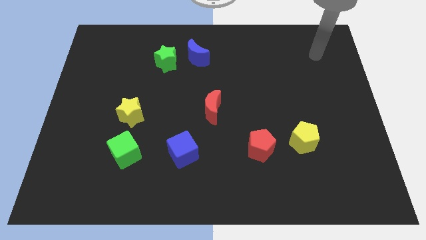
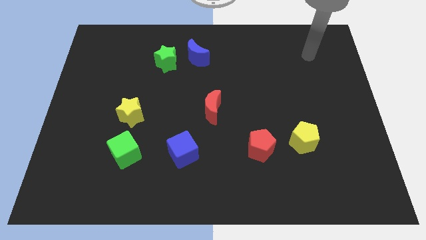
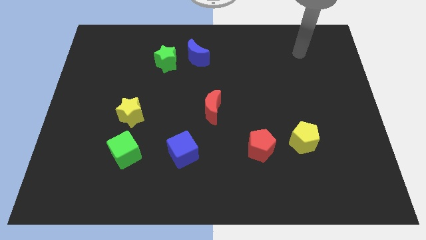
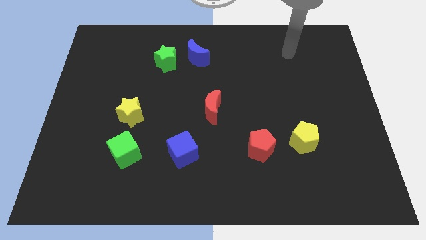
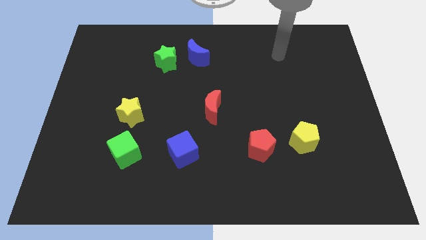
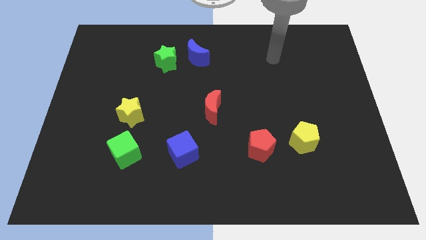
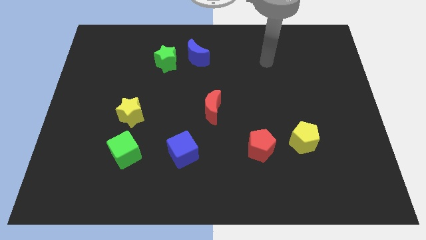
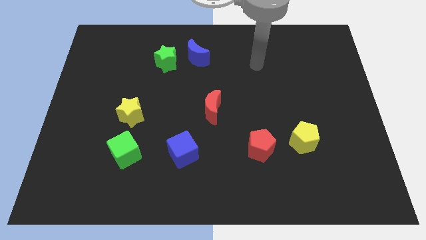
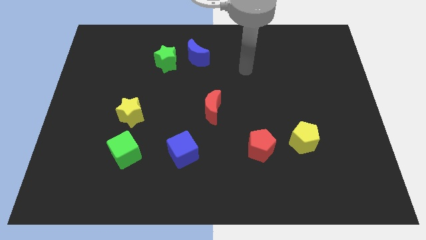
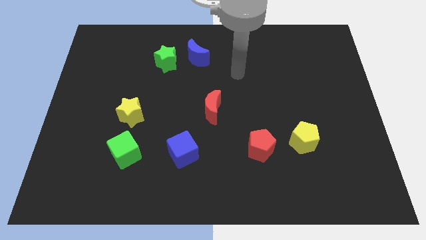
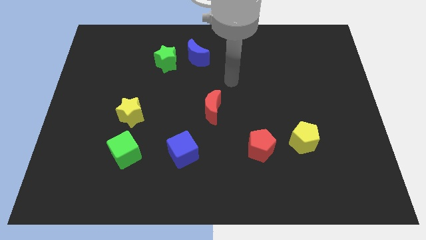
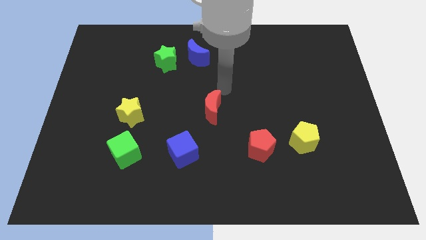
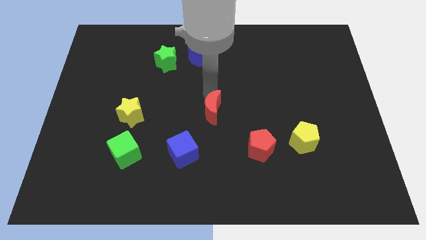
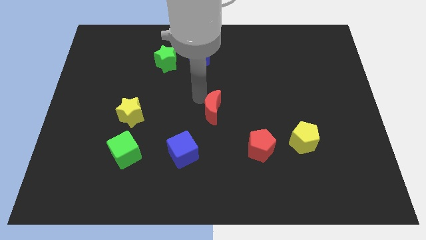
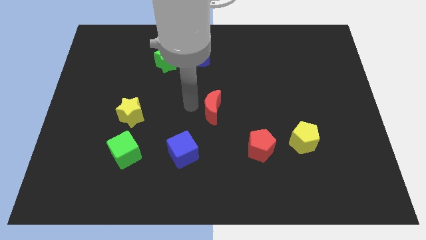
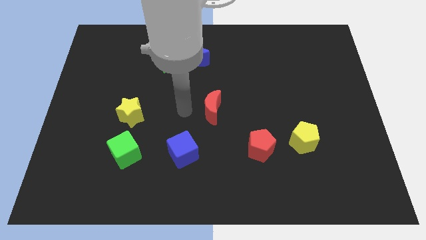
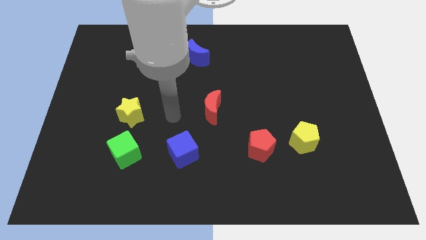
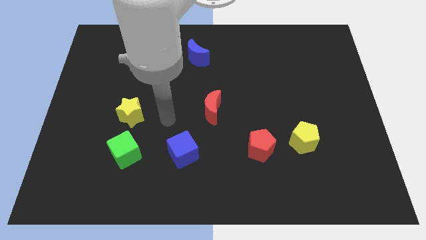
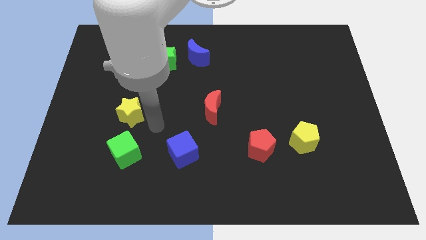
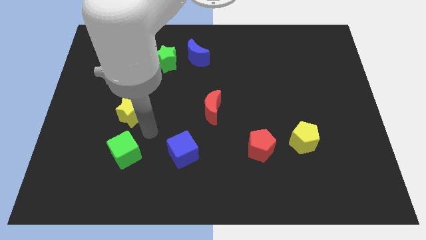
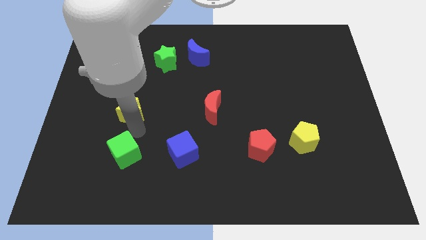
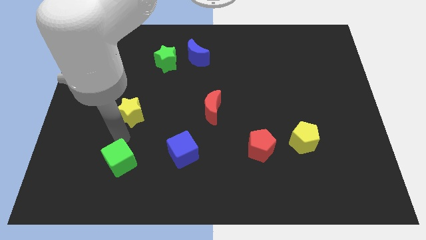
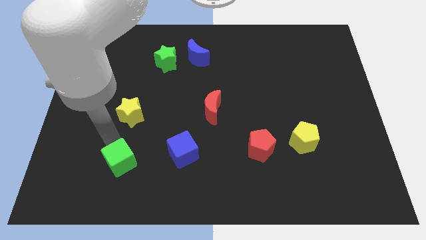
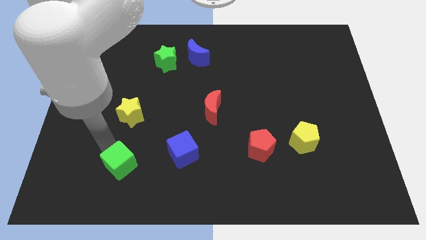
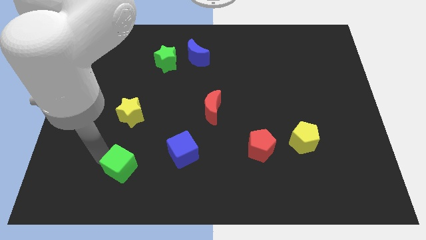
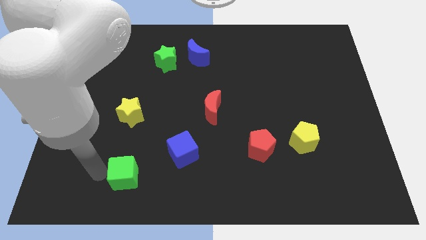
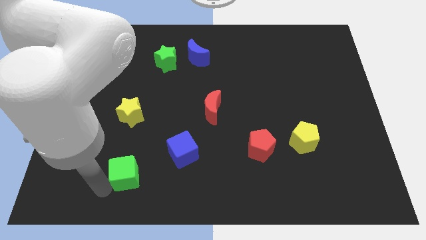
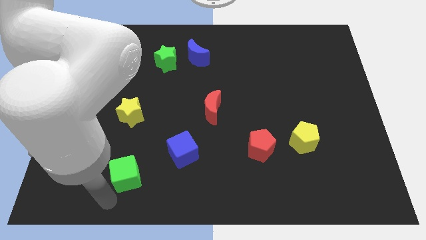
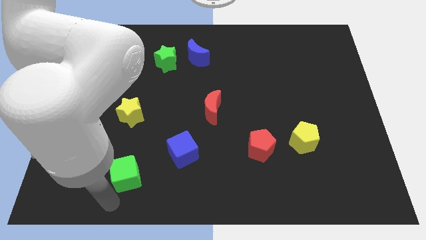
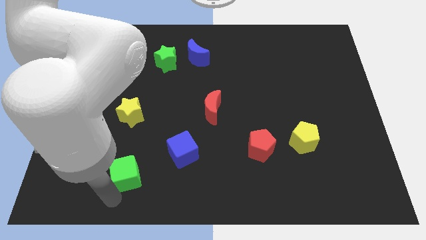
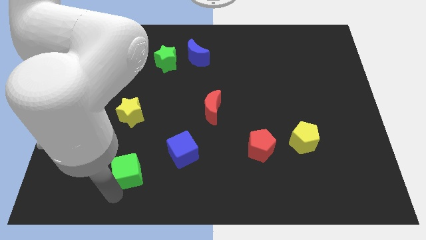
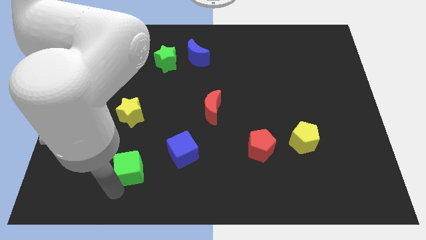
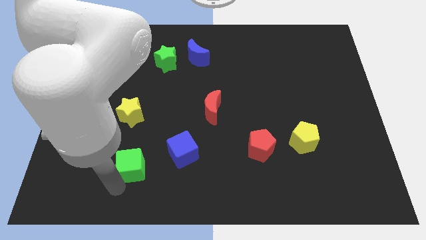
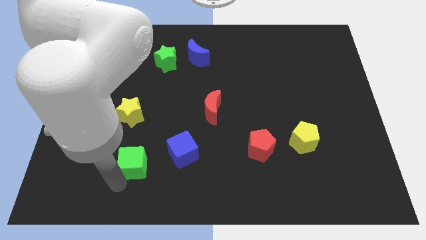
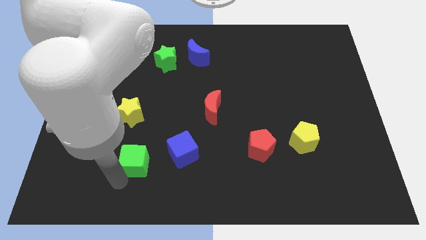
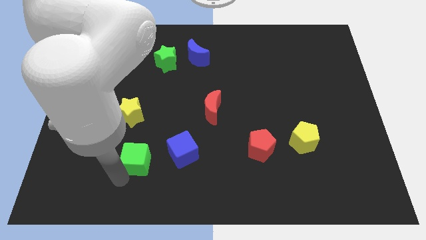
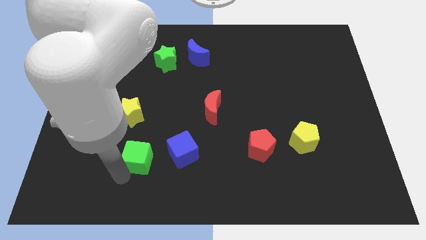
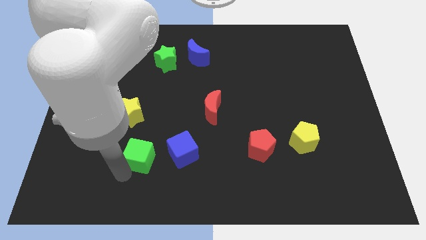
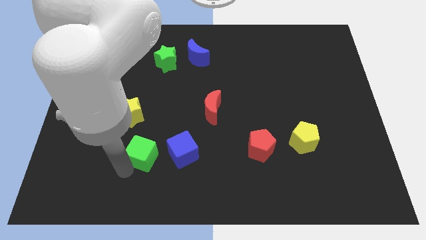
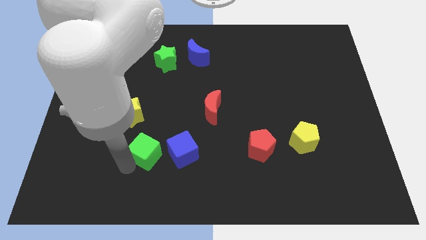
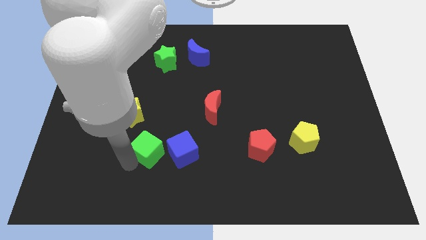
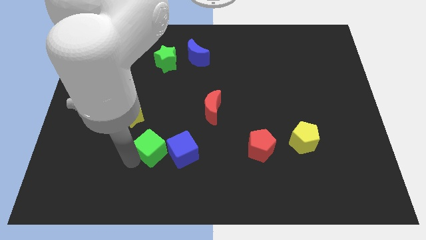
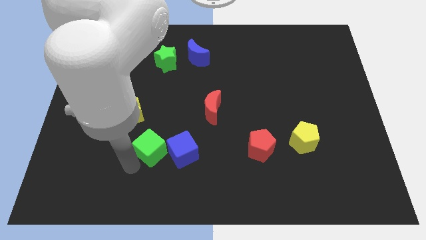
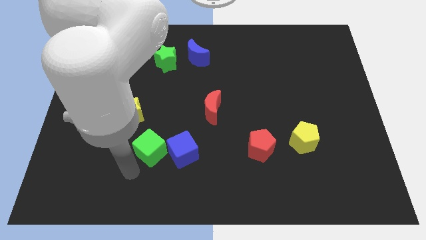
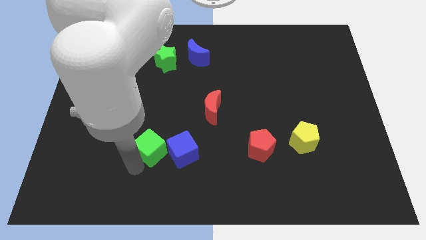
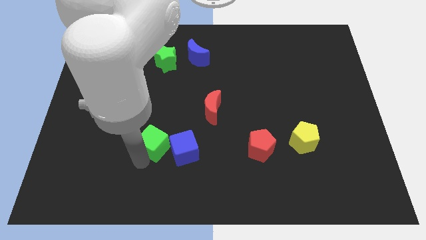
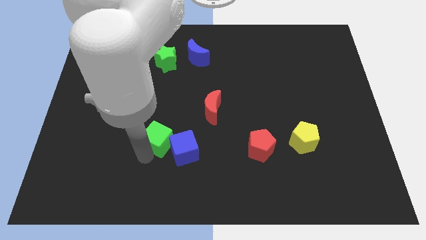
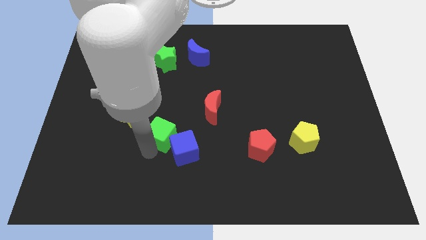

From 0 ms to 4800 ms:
move the green cube upwards and to the right a bit

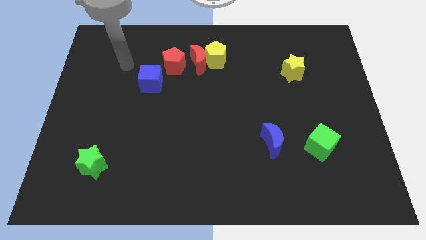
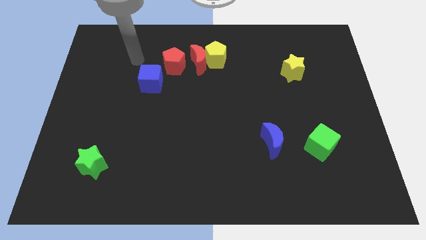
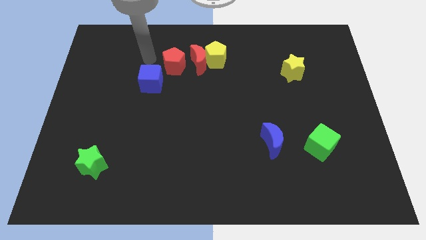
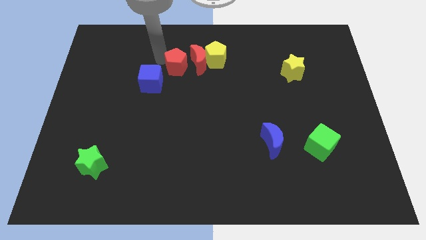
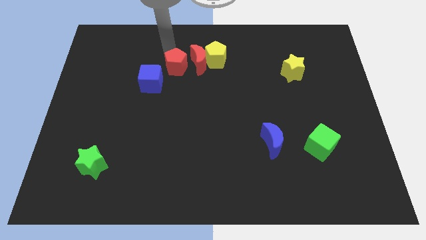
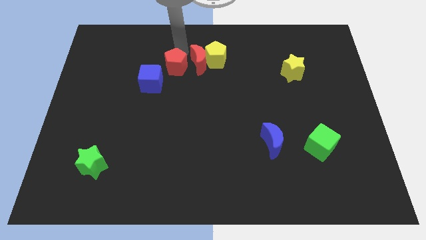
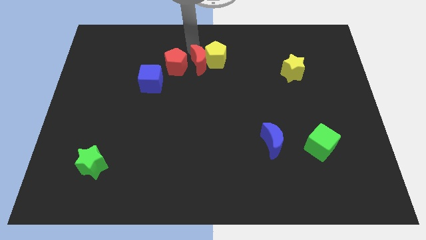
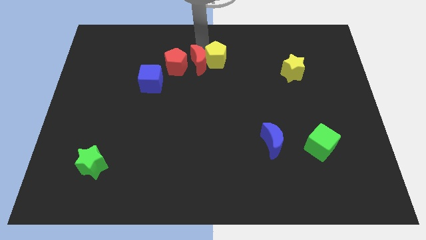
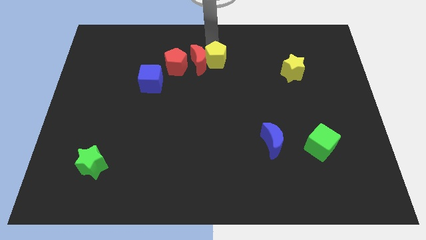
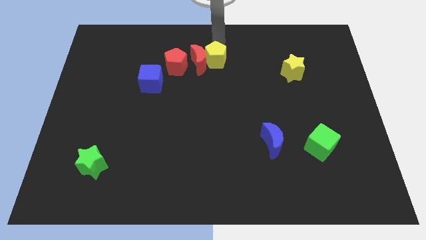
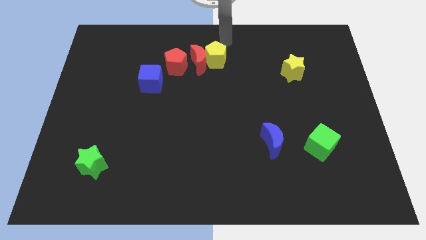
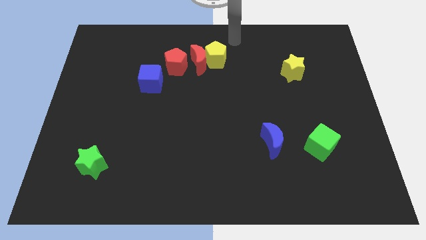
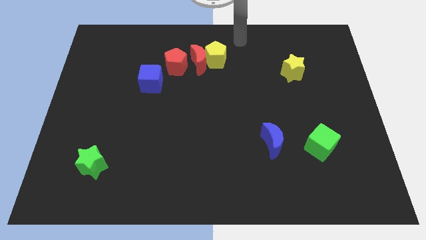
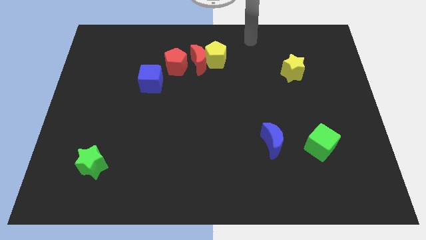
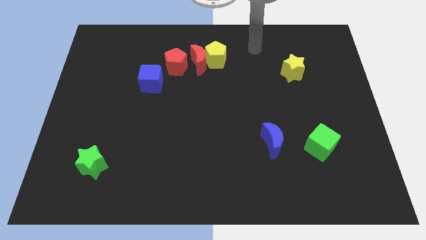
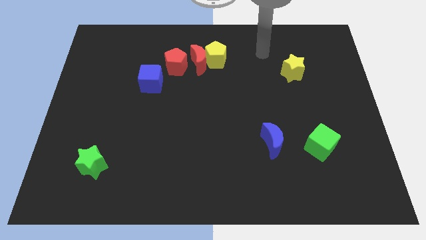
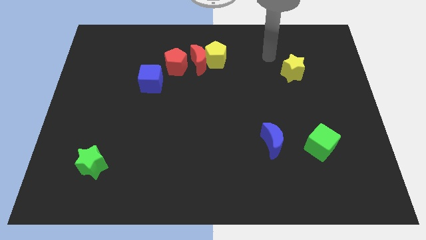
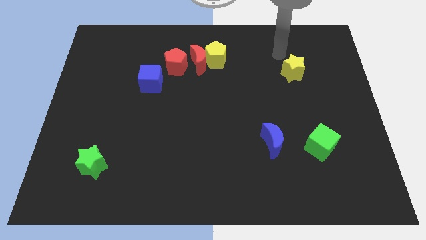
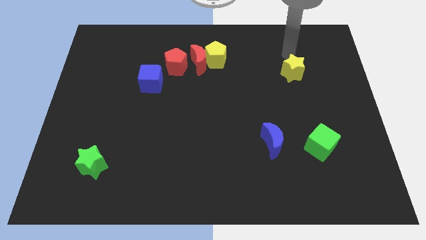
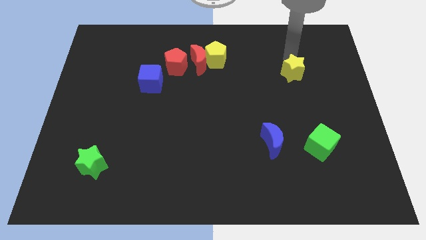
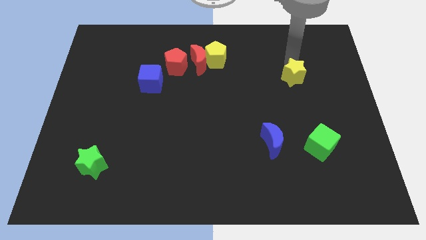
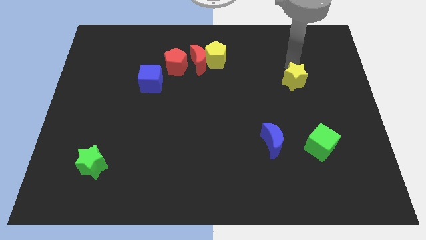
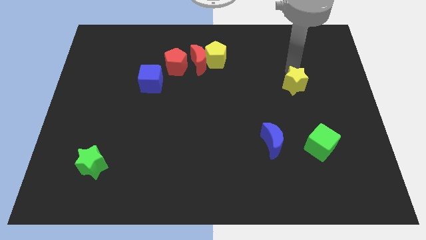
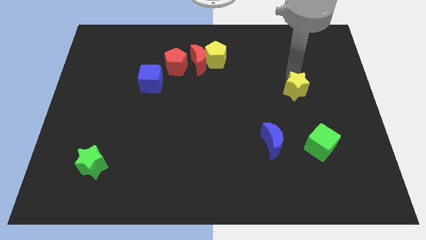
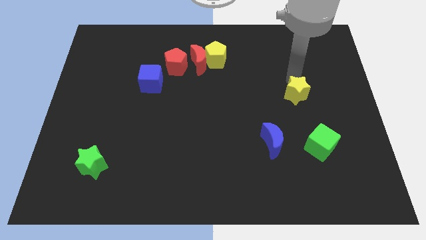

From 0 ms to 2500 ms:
slide the yellow star somewhat down

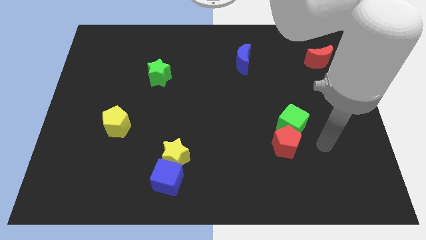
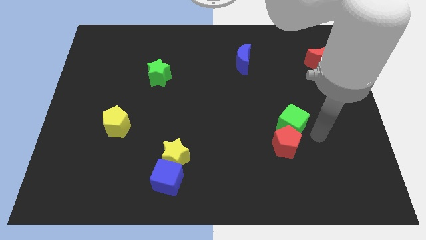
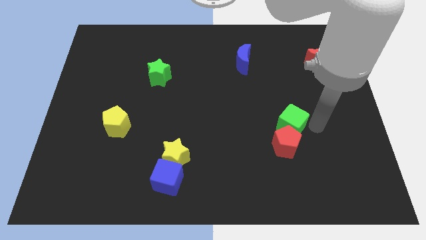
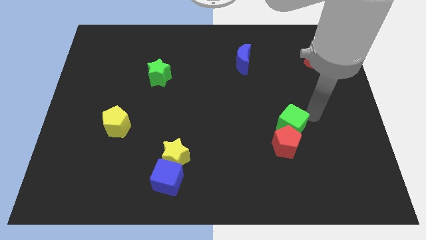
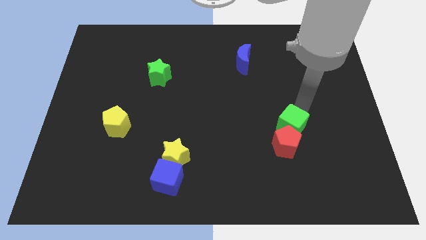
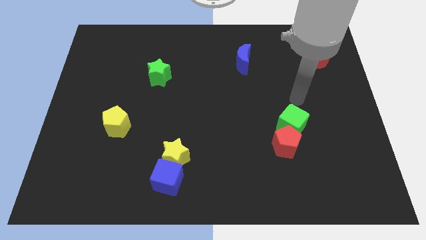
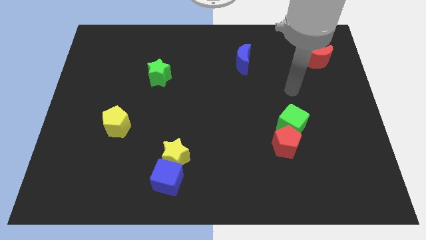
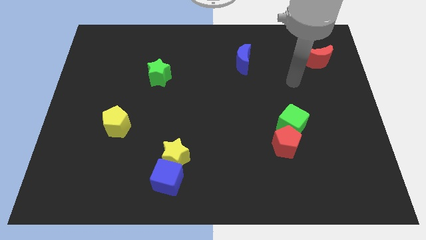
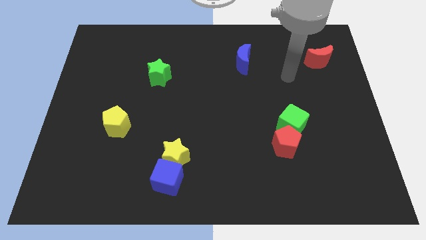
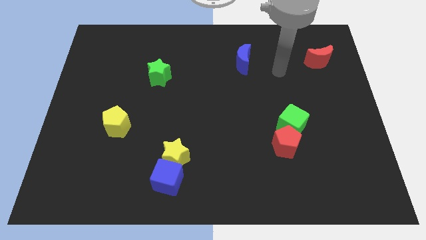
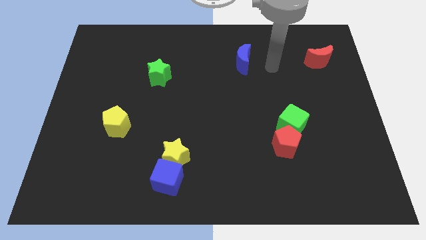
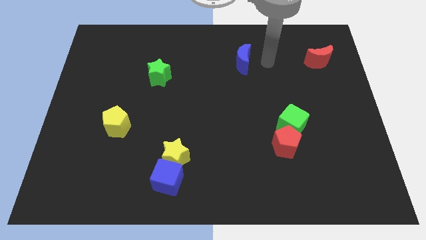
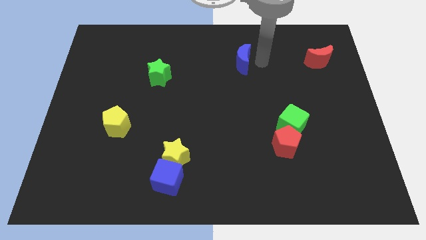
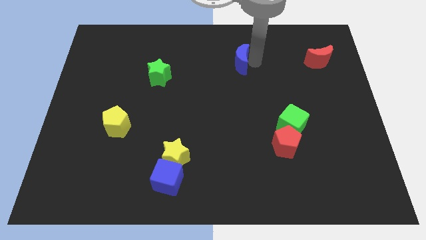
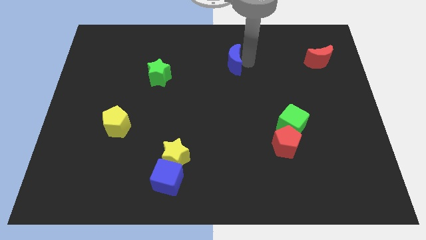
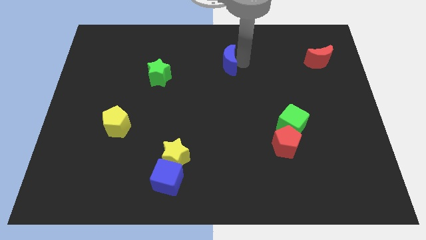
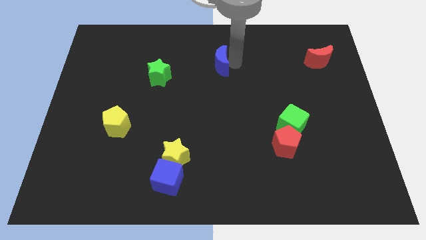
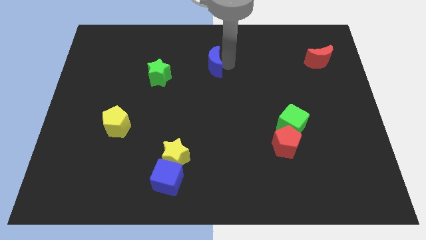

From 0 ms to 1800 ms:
push the blue moon a little to the left
